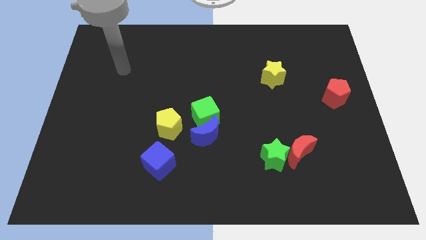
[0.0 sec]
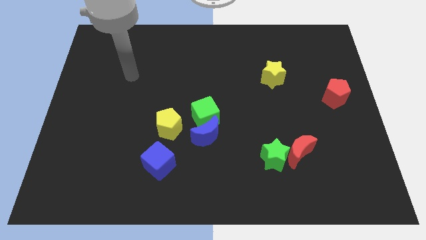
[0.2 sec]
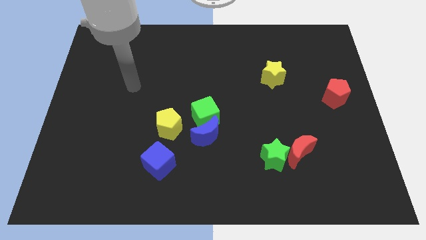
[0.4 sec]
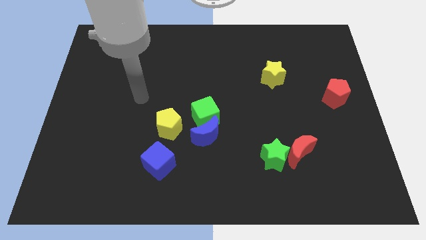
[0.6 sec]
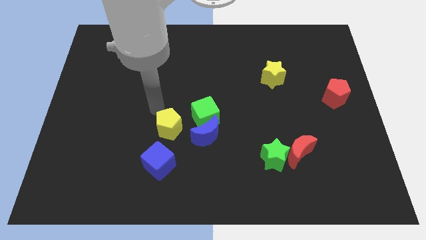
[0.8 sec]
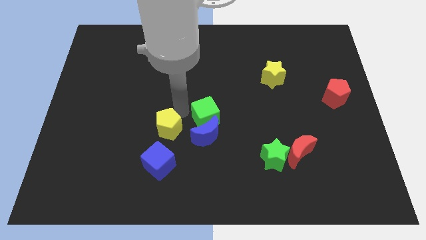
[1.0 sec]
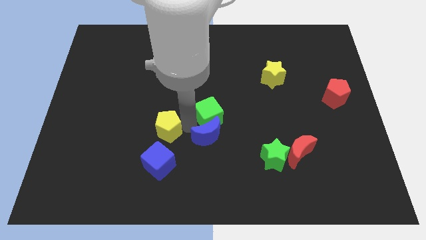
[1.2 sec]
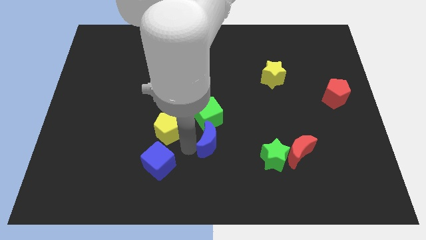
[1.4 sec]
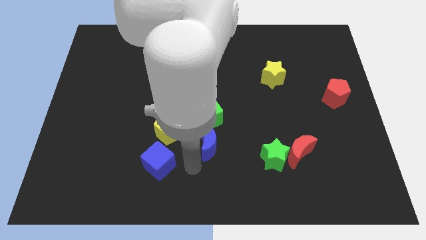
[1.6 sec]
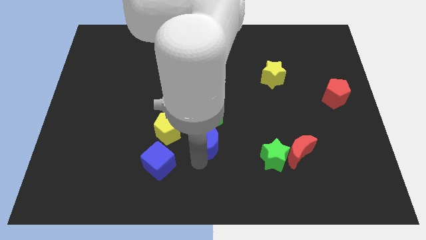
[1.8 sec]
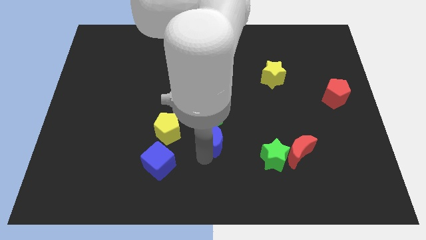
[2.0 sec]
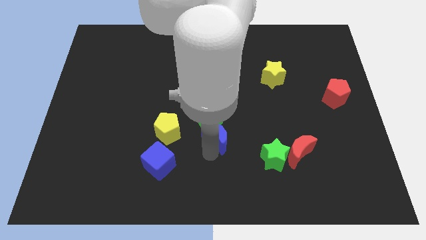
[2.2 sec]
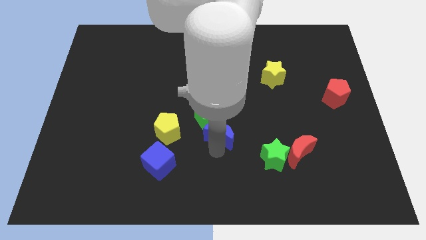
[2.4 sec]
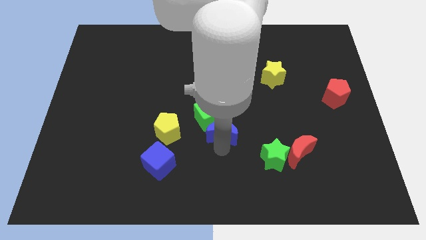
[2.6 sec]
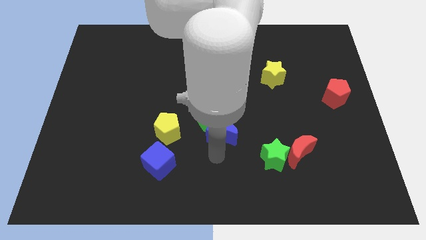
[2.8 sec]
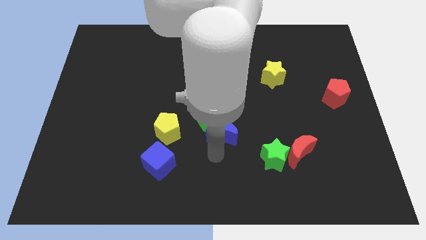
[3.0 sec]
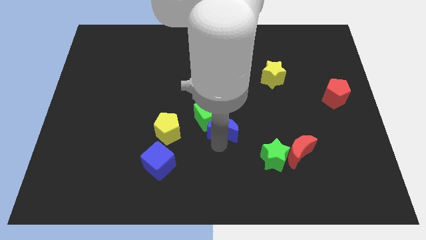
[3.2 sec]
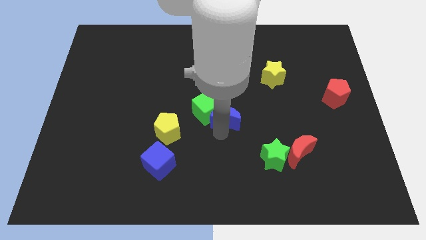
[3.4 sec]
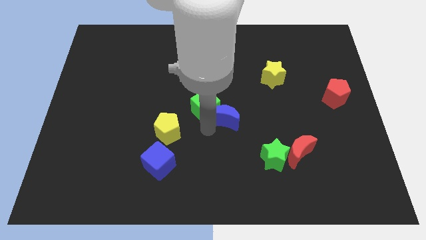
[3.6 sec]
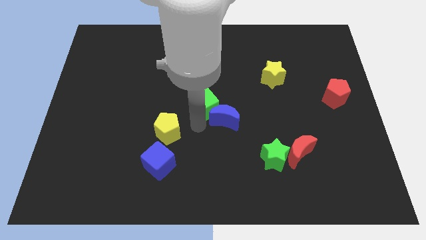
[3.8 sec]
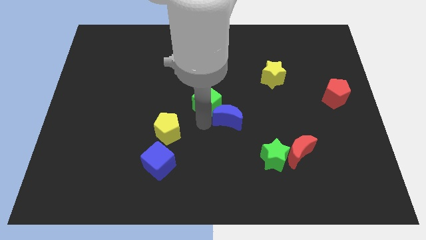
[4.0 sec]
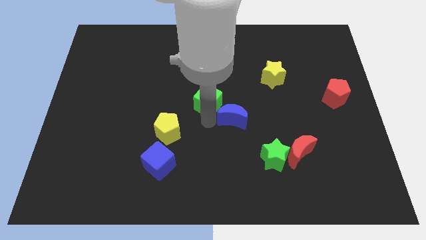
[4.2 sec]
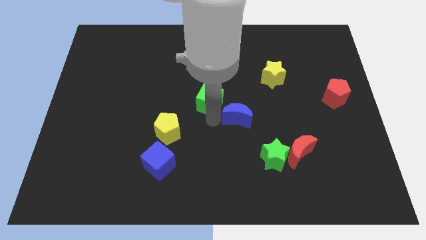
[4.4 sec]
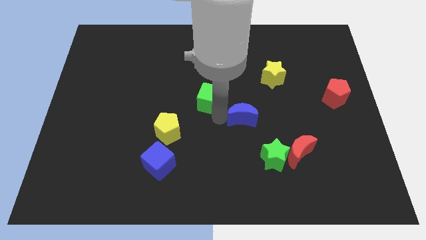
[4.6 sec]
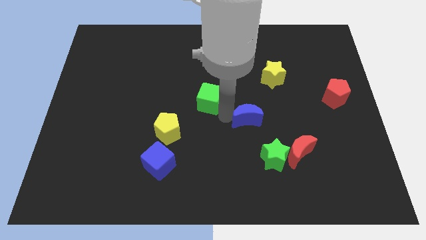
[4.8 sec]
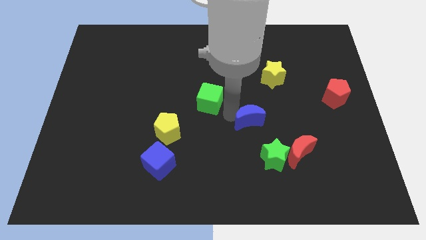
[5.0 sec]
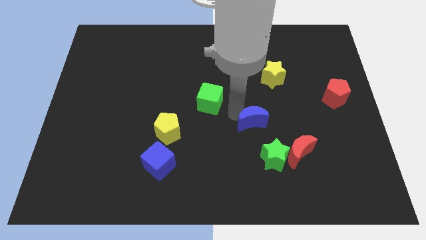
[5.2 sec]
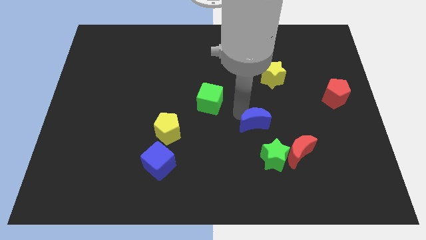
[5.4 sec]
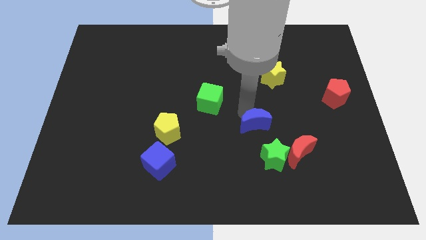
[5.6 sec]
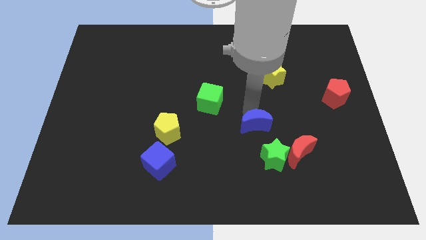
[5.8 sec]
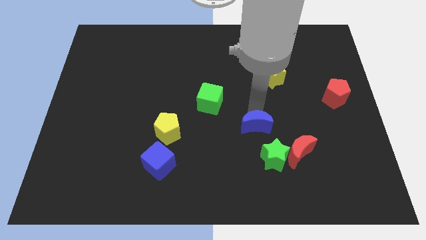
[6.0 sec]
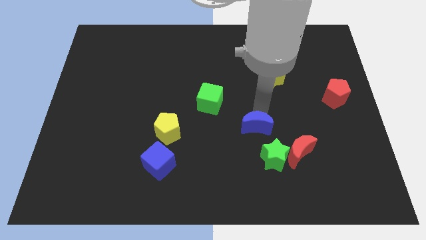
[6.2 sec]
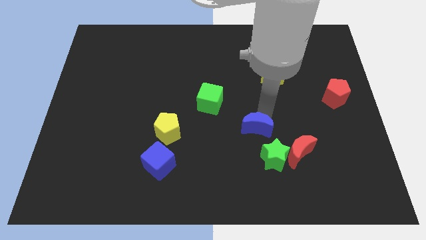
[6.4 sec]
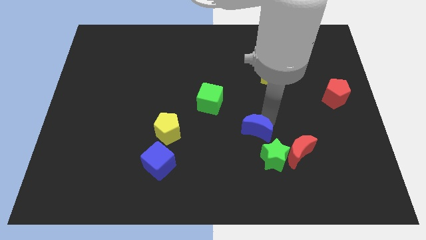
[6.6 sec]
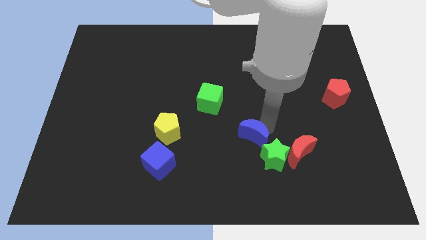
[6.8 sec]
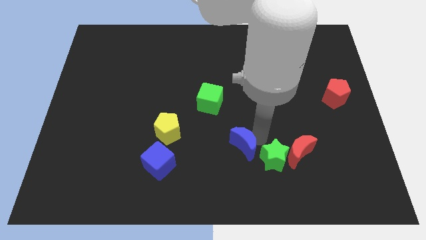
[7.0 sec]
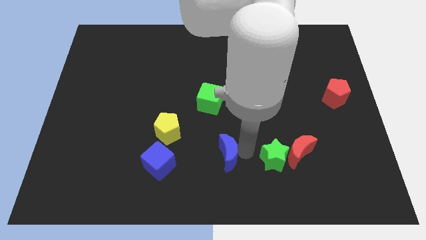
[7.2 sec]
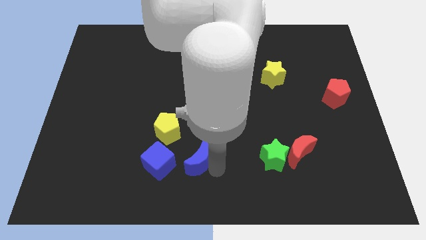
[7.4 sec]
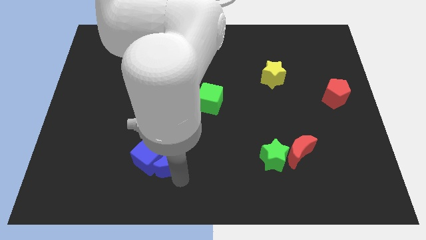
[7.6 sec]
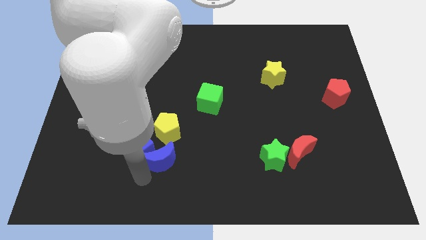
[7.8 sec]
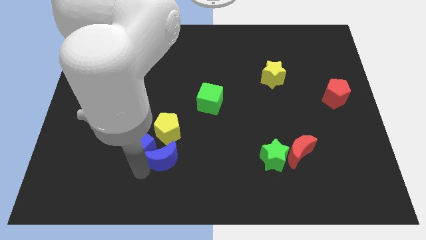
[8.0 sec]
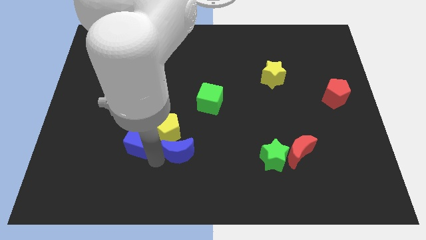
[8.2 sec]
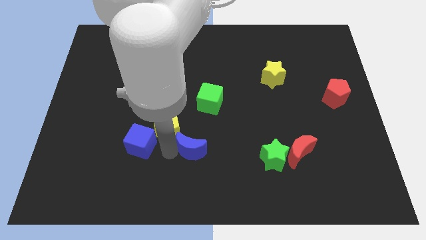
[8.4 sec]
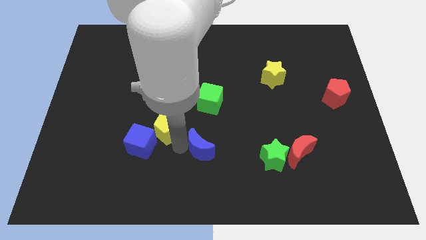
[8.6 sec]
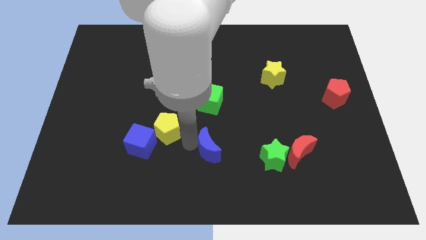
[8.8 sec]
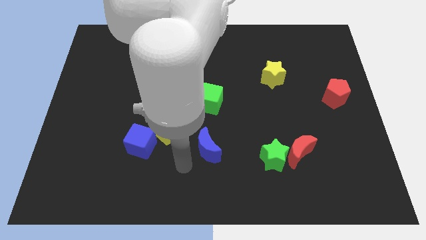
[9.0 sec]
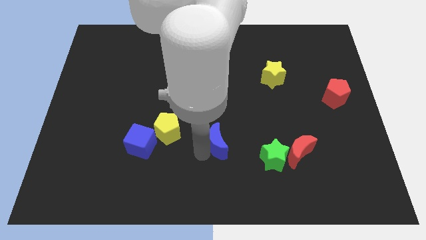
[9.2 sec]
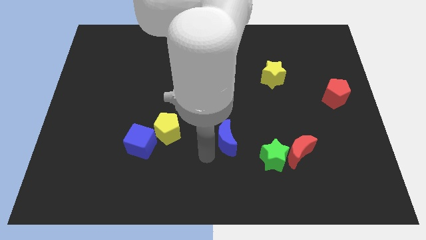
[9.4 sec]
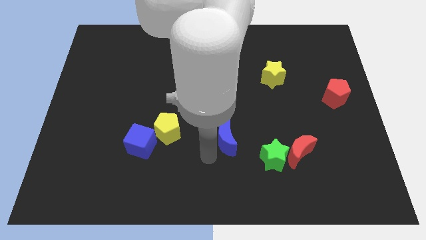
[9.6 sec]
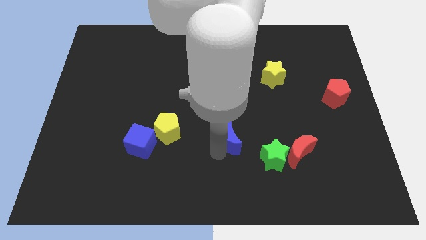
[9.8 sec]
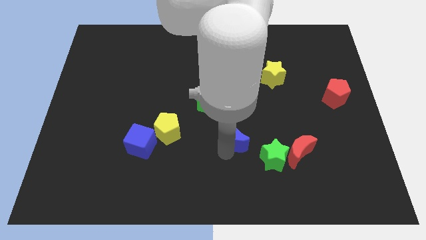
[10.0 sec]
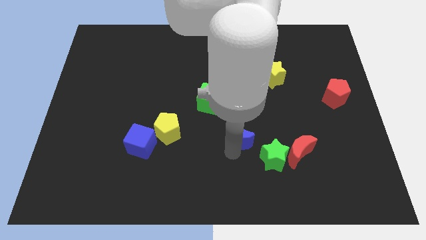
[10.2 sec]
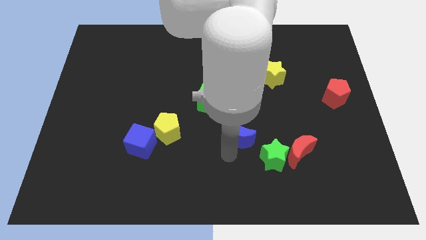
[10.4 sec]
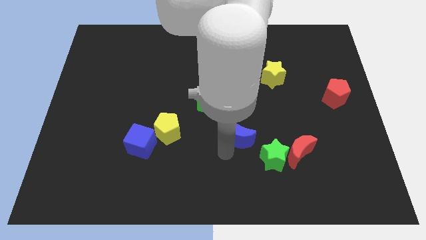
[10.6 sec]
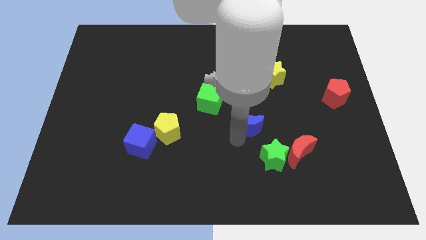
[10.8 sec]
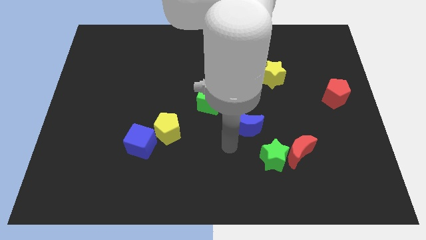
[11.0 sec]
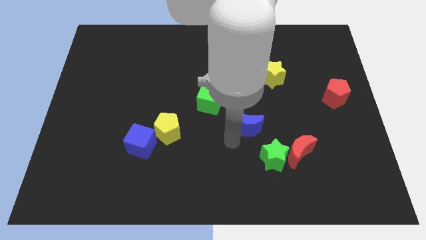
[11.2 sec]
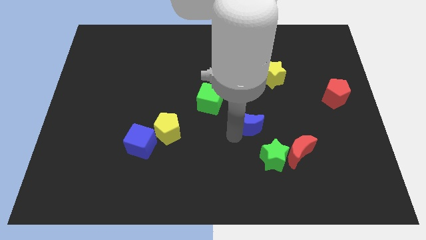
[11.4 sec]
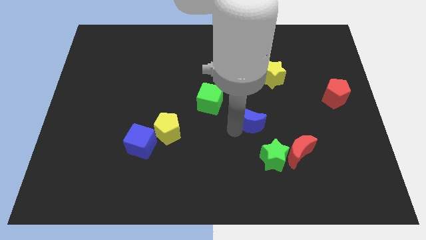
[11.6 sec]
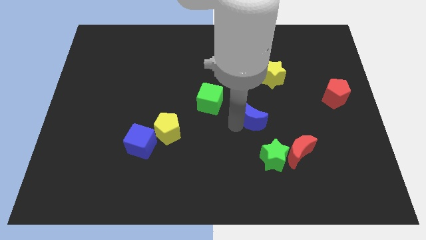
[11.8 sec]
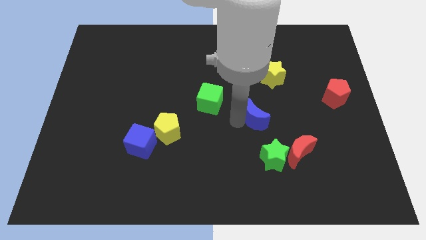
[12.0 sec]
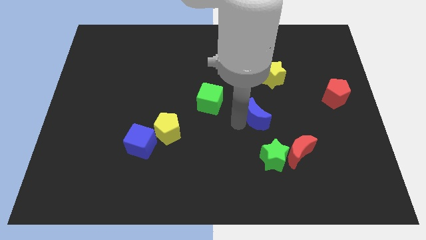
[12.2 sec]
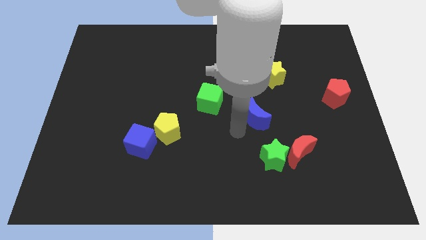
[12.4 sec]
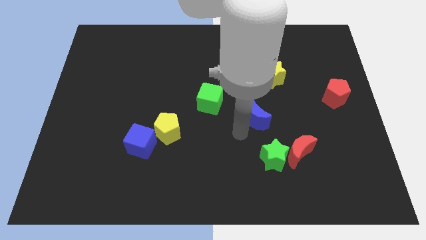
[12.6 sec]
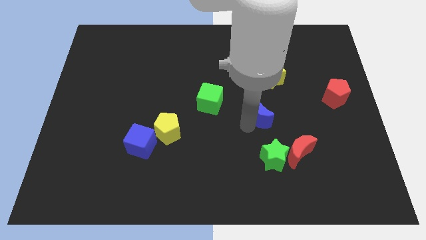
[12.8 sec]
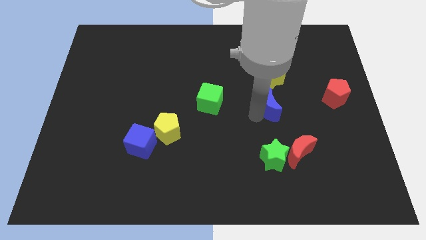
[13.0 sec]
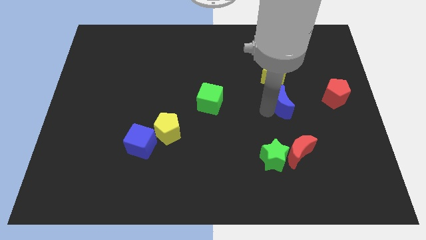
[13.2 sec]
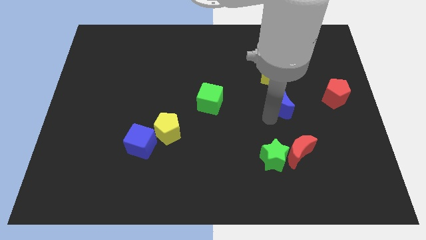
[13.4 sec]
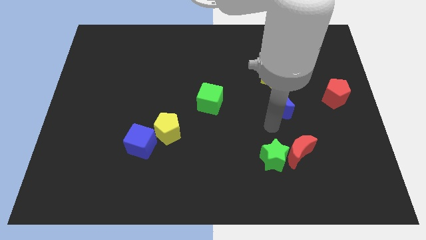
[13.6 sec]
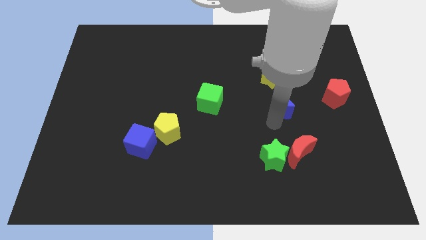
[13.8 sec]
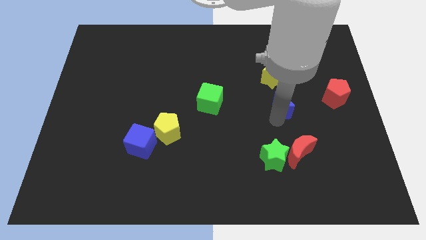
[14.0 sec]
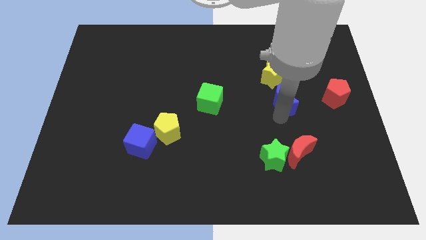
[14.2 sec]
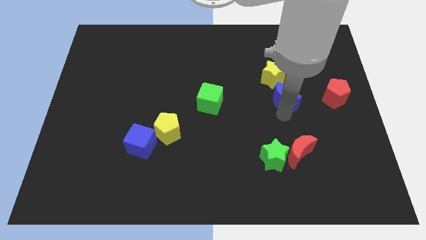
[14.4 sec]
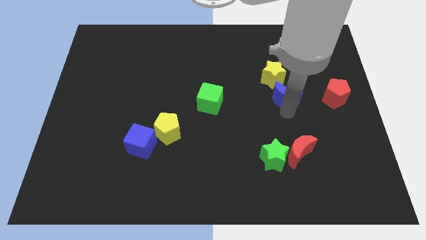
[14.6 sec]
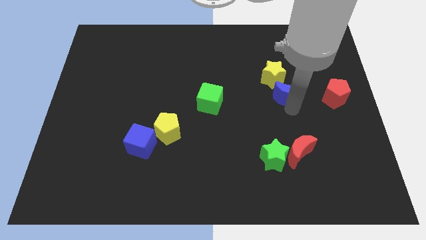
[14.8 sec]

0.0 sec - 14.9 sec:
slide the blue moon up and then to the right

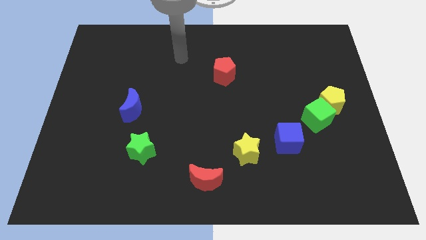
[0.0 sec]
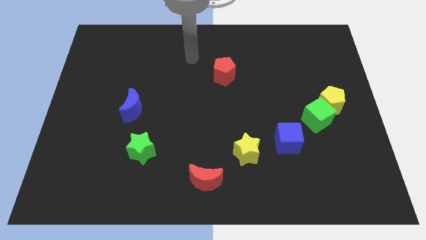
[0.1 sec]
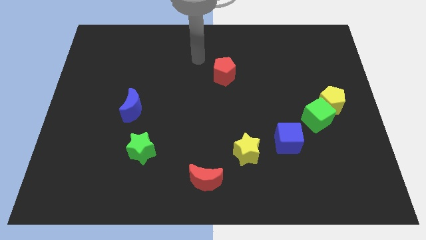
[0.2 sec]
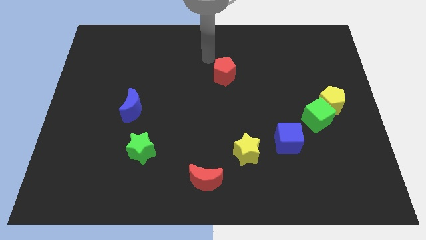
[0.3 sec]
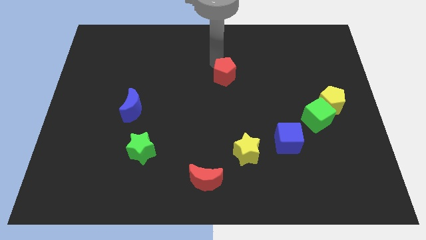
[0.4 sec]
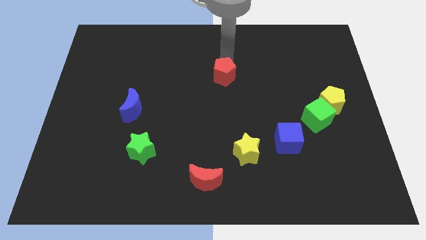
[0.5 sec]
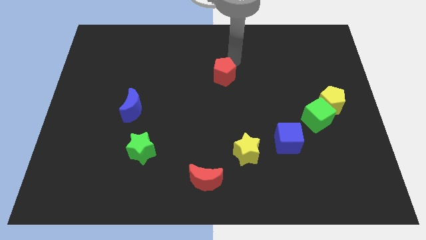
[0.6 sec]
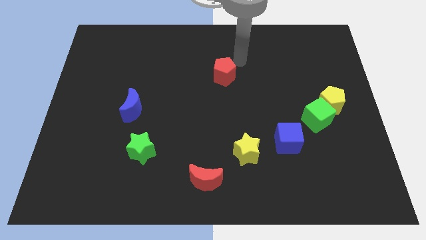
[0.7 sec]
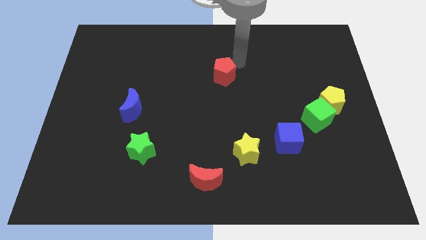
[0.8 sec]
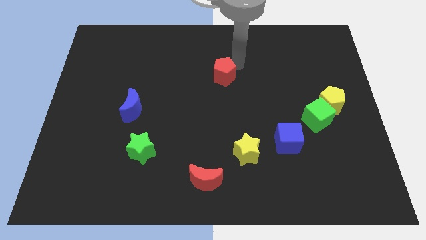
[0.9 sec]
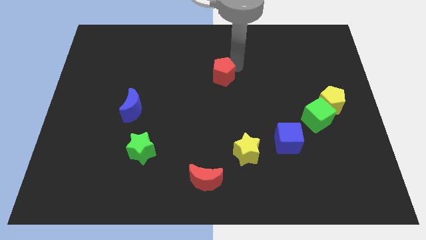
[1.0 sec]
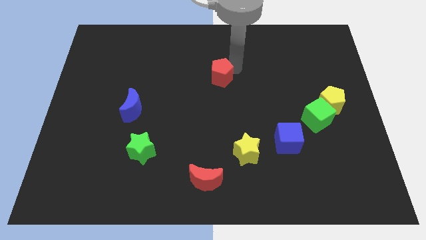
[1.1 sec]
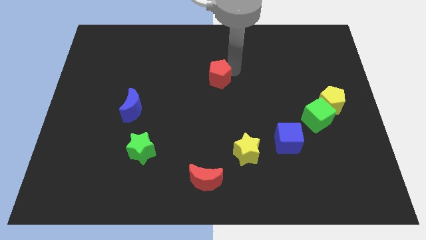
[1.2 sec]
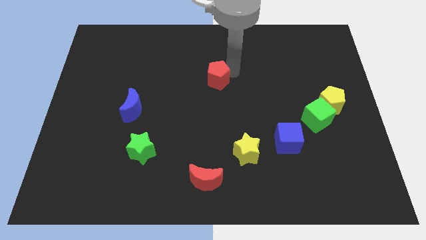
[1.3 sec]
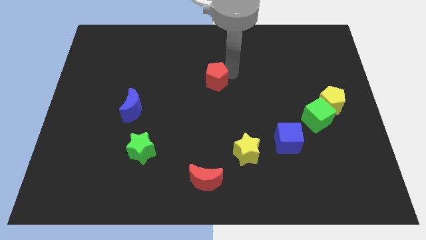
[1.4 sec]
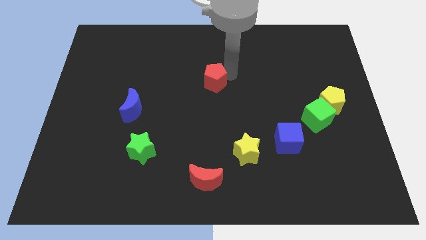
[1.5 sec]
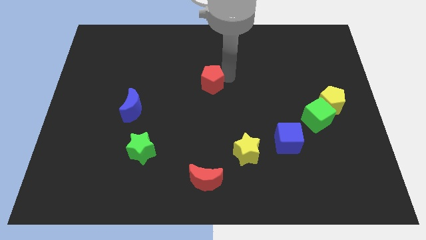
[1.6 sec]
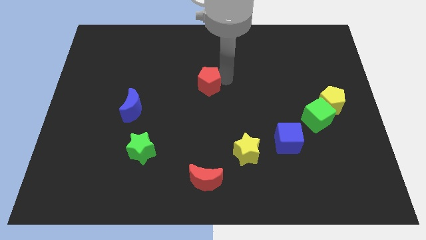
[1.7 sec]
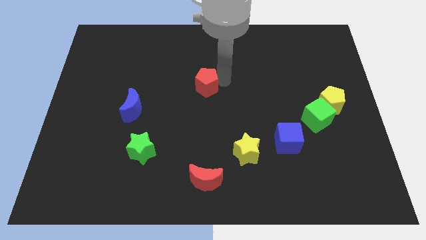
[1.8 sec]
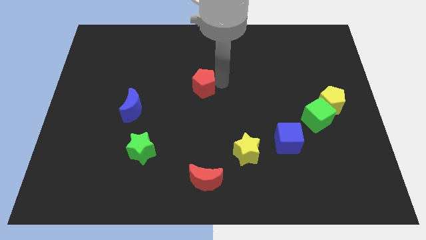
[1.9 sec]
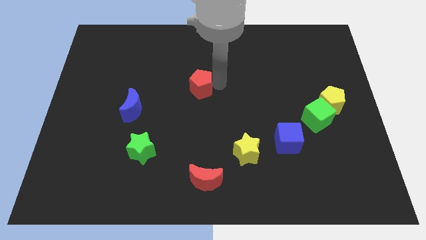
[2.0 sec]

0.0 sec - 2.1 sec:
move the red pentagon diagonally downwards and left a little bit
